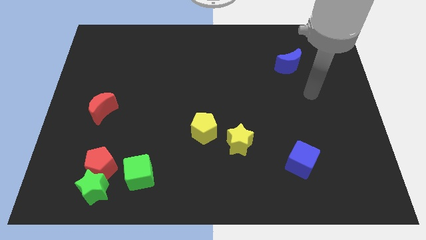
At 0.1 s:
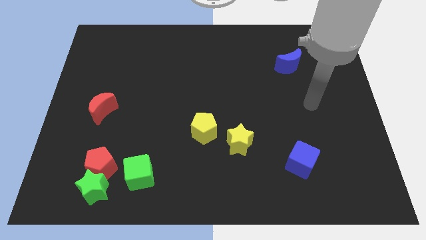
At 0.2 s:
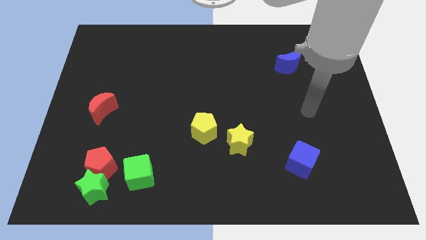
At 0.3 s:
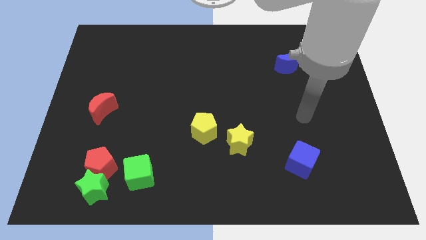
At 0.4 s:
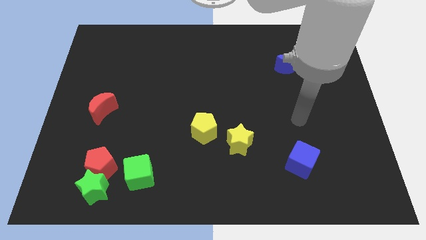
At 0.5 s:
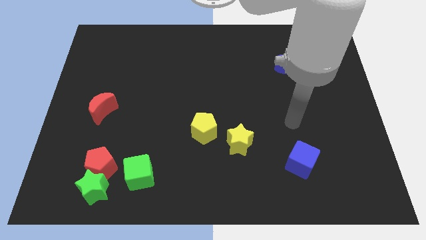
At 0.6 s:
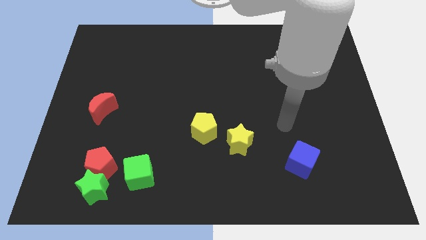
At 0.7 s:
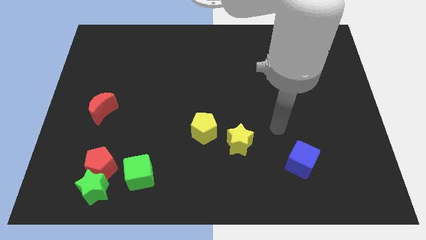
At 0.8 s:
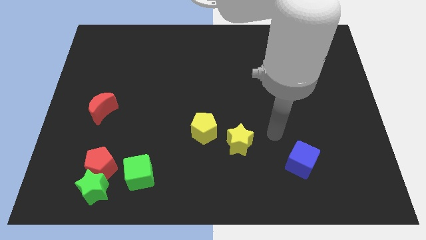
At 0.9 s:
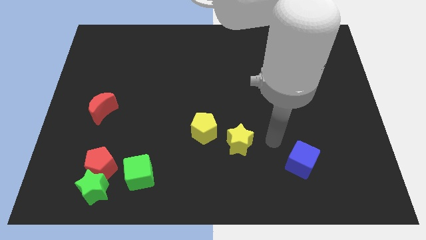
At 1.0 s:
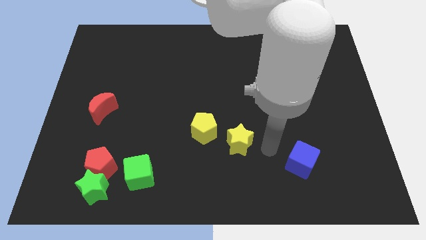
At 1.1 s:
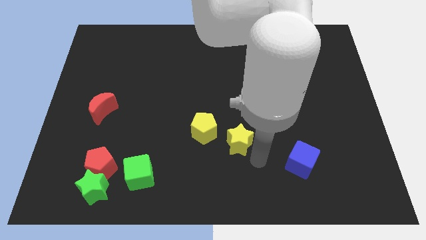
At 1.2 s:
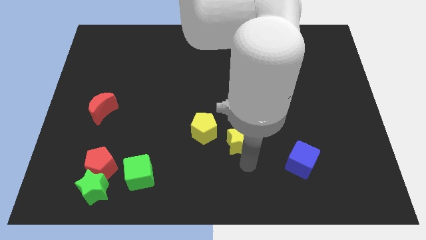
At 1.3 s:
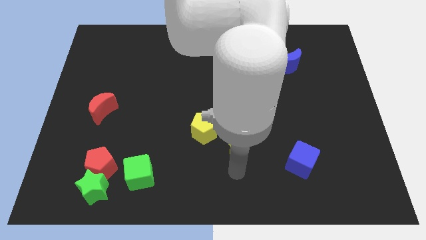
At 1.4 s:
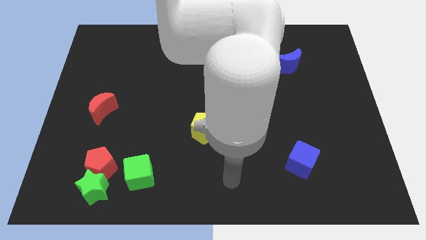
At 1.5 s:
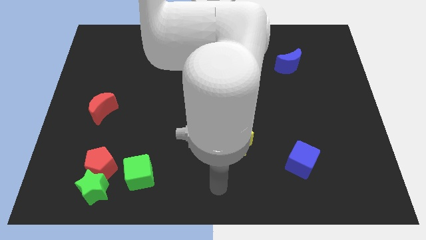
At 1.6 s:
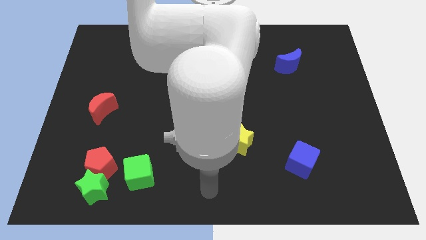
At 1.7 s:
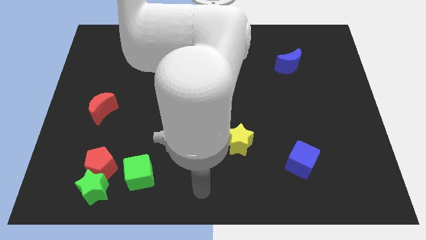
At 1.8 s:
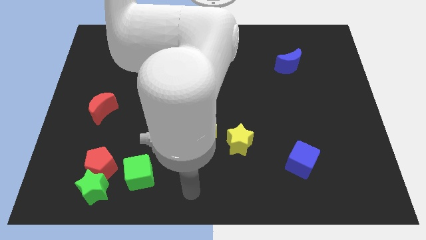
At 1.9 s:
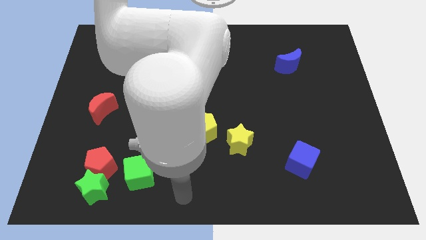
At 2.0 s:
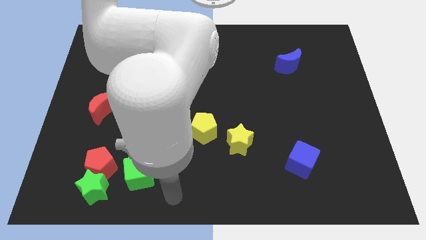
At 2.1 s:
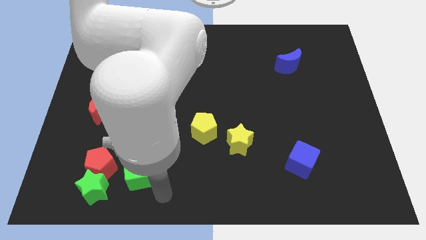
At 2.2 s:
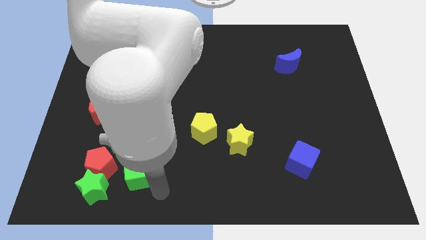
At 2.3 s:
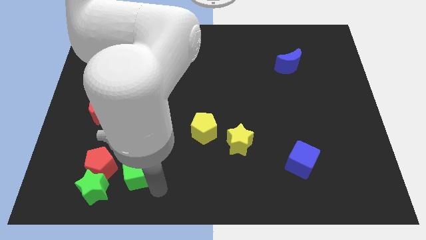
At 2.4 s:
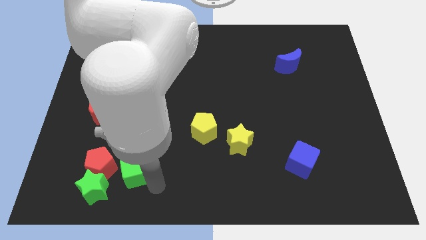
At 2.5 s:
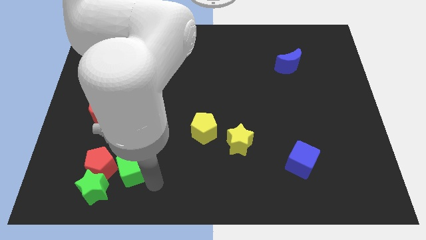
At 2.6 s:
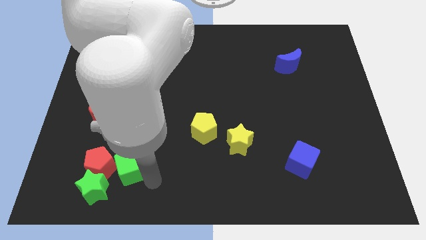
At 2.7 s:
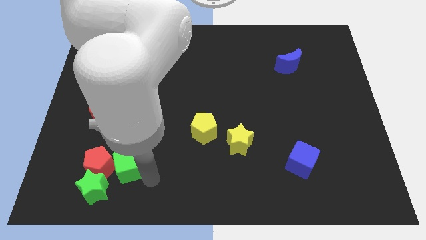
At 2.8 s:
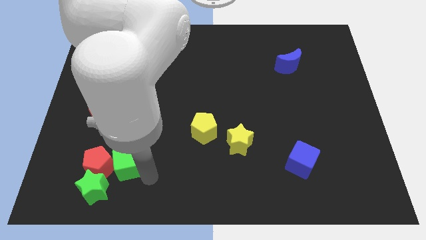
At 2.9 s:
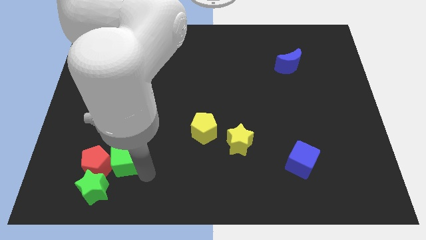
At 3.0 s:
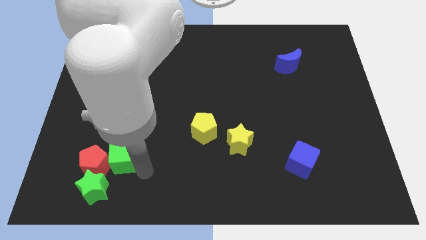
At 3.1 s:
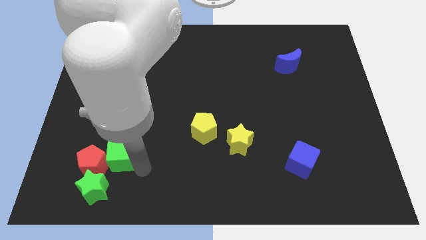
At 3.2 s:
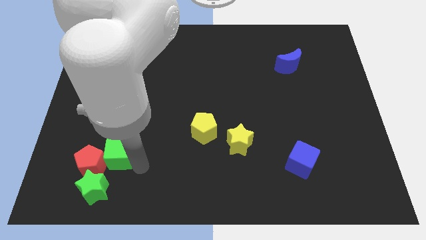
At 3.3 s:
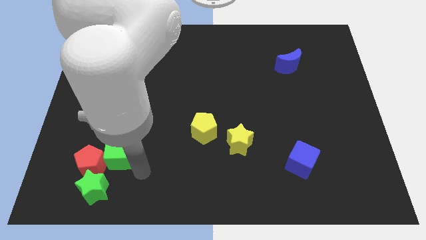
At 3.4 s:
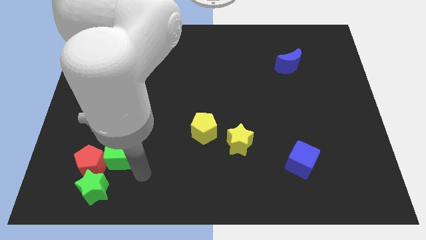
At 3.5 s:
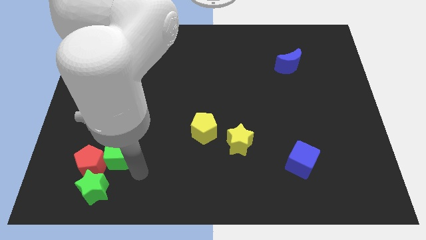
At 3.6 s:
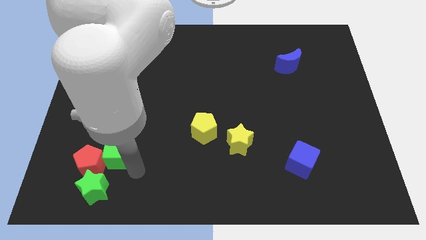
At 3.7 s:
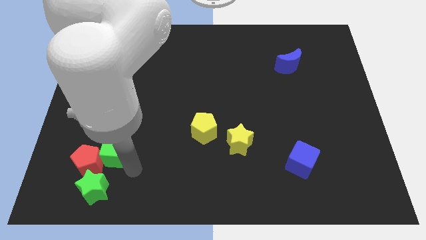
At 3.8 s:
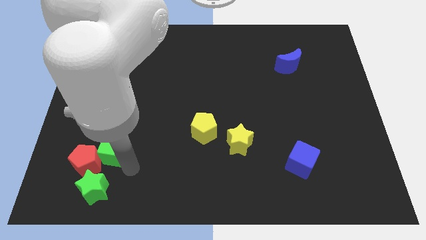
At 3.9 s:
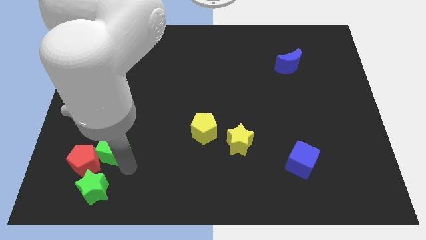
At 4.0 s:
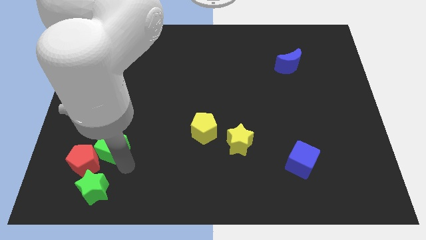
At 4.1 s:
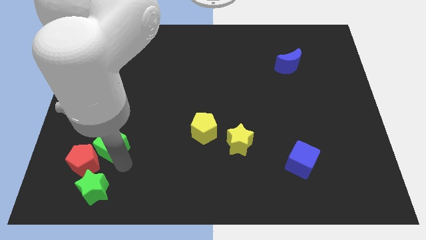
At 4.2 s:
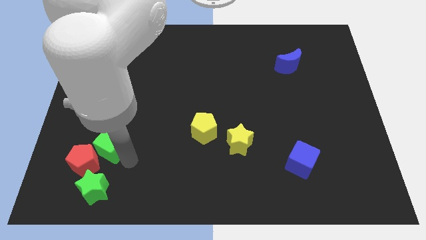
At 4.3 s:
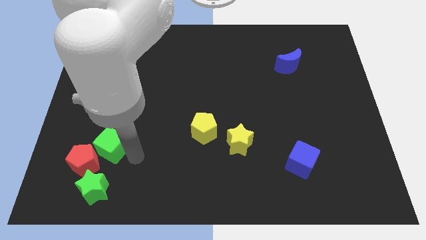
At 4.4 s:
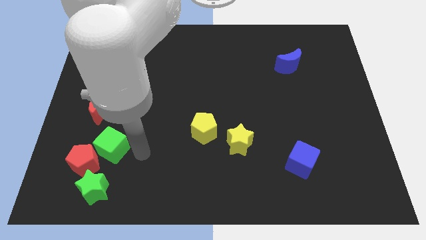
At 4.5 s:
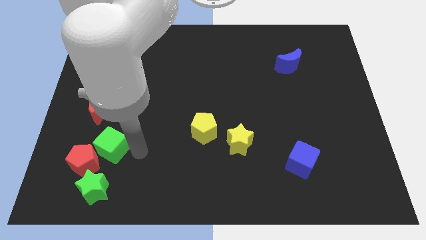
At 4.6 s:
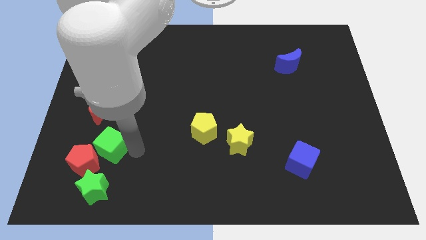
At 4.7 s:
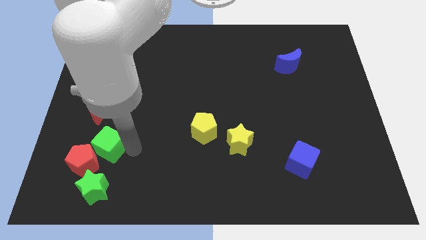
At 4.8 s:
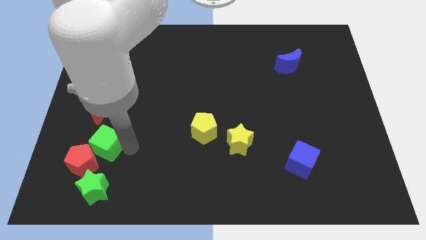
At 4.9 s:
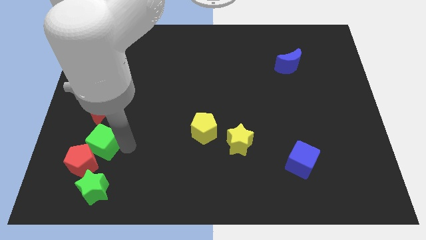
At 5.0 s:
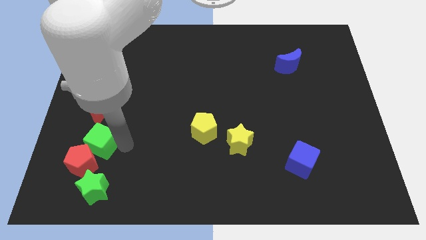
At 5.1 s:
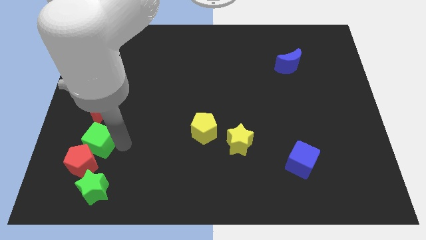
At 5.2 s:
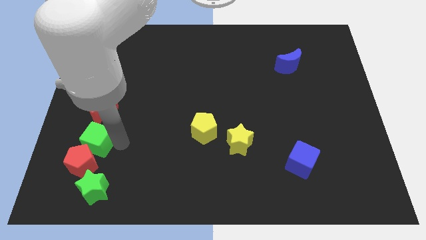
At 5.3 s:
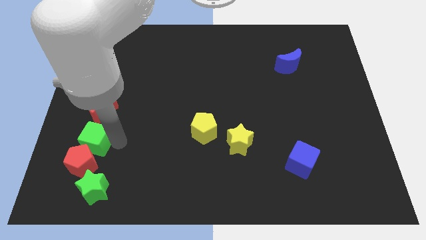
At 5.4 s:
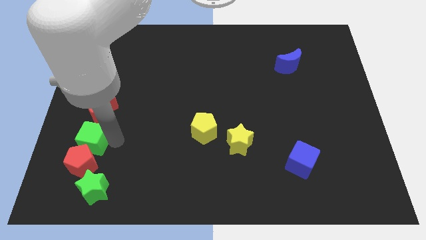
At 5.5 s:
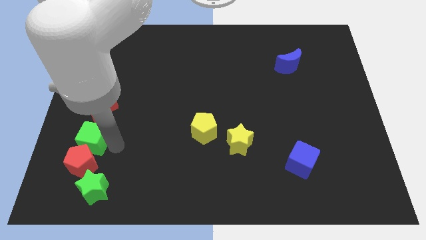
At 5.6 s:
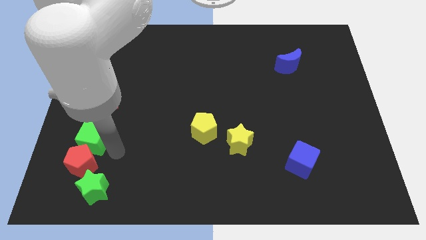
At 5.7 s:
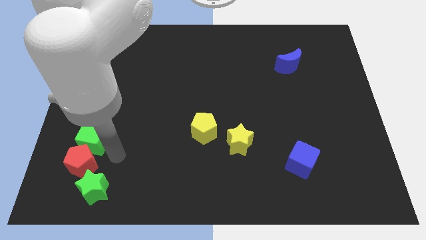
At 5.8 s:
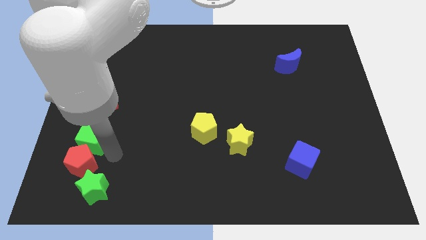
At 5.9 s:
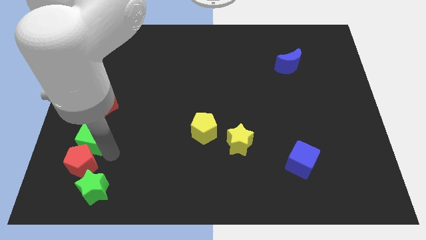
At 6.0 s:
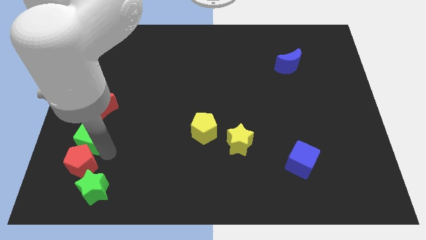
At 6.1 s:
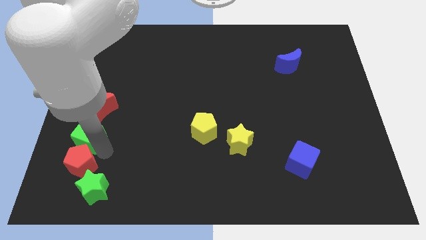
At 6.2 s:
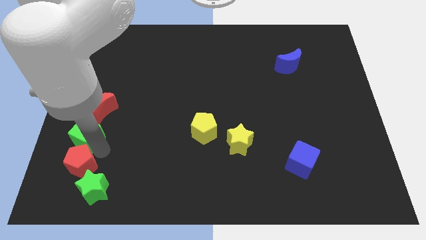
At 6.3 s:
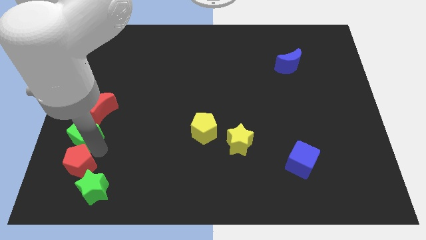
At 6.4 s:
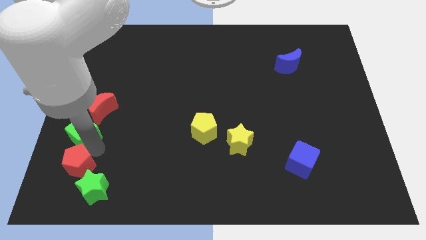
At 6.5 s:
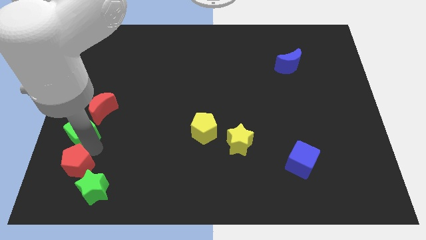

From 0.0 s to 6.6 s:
put the green cube to the left side of the board
